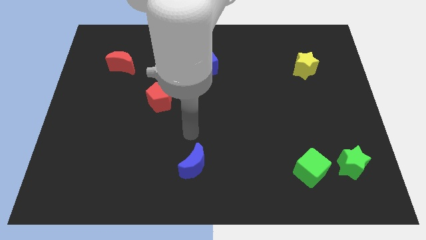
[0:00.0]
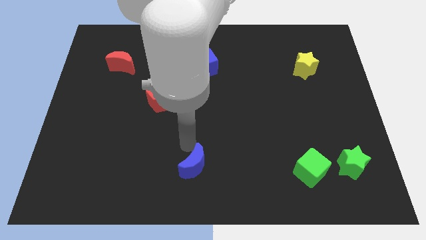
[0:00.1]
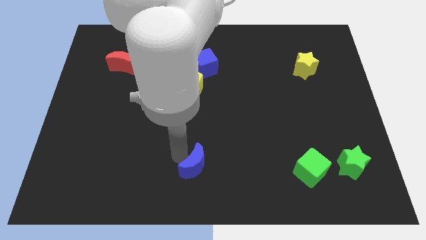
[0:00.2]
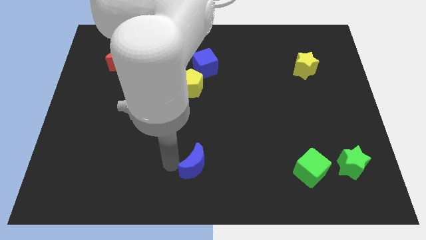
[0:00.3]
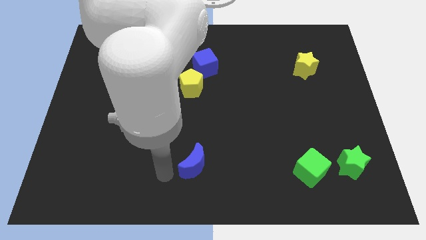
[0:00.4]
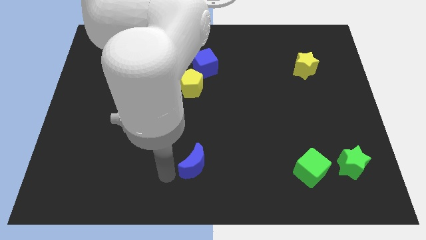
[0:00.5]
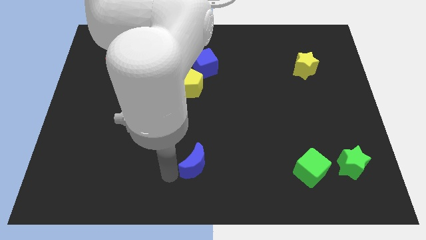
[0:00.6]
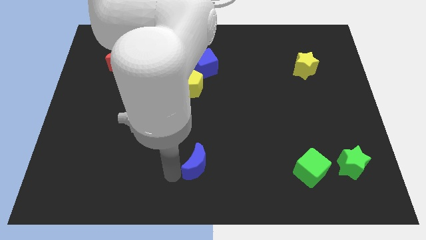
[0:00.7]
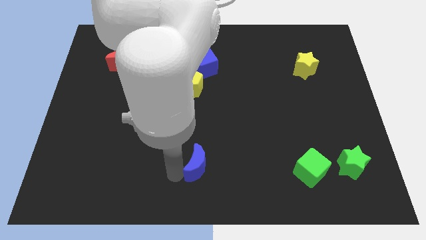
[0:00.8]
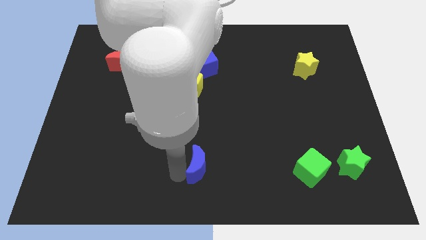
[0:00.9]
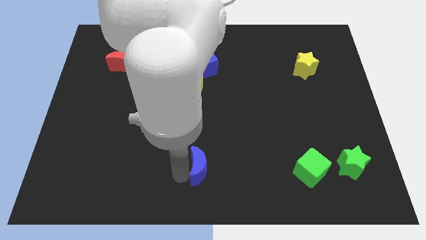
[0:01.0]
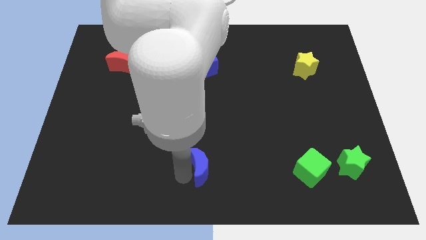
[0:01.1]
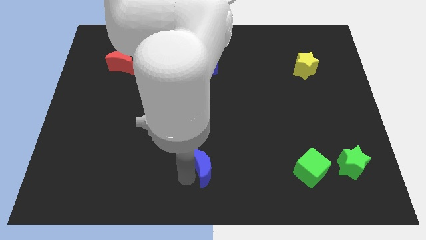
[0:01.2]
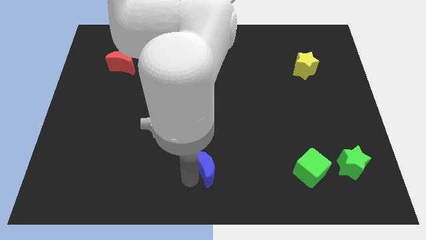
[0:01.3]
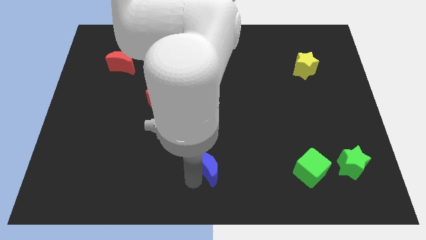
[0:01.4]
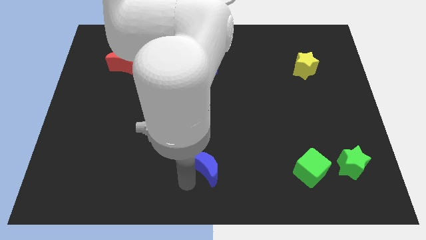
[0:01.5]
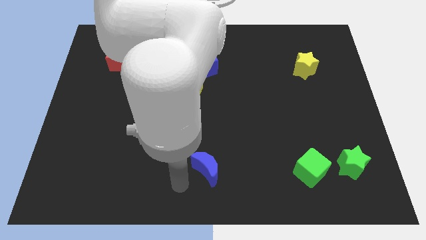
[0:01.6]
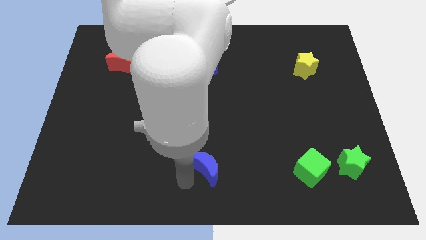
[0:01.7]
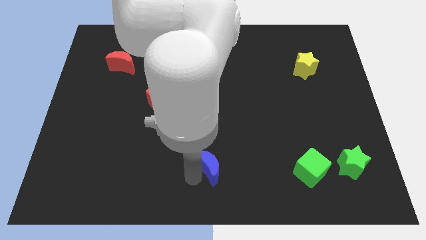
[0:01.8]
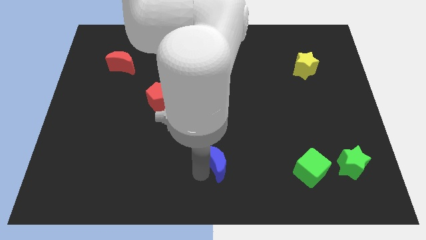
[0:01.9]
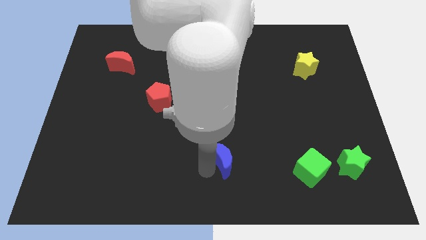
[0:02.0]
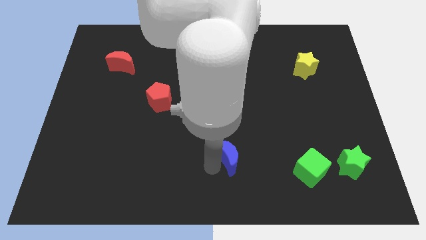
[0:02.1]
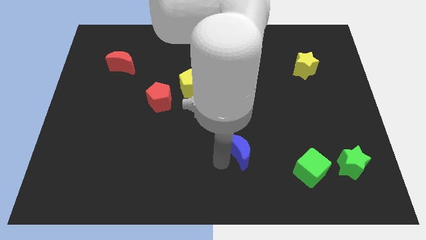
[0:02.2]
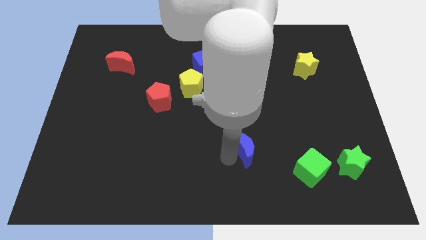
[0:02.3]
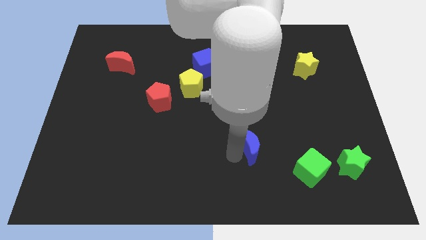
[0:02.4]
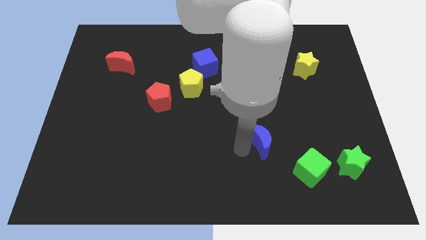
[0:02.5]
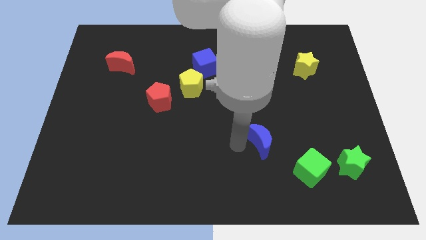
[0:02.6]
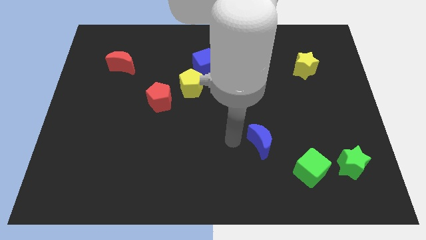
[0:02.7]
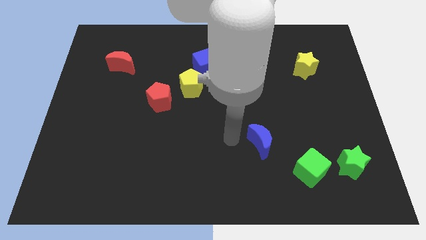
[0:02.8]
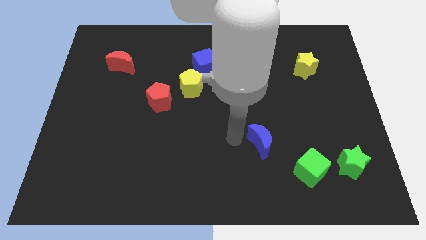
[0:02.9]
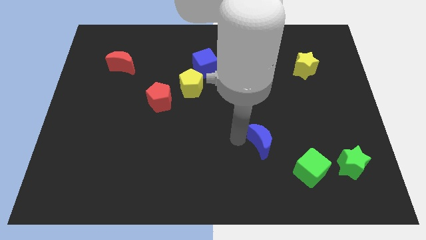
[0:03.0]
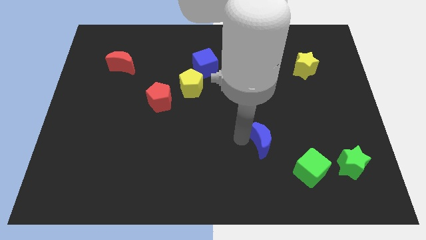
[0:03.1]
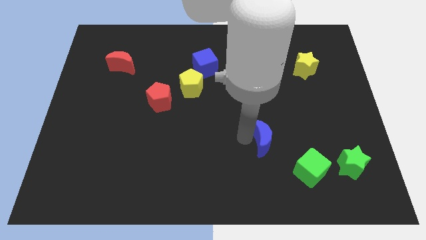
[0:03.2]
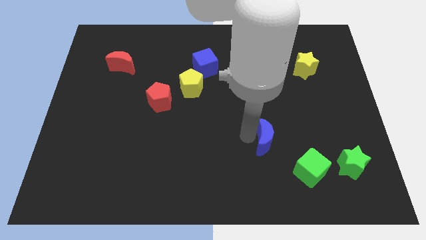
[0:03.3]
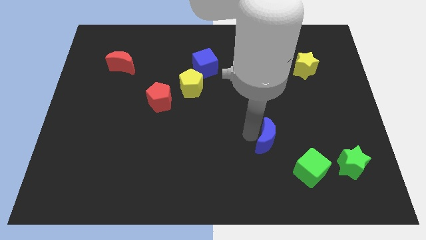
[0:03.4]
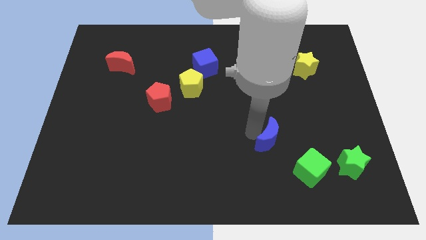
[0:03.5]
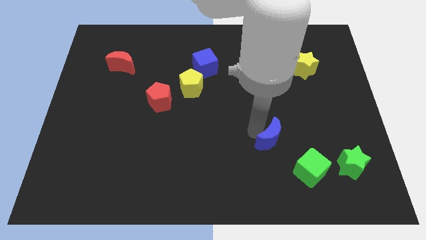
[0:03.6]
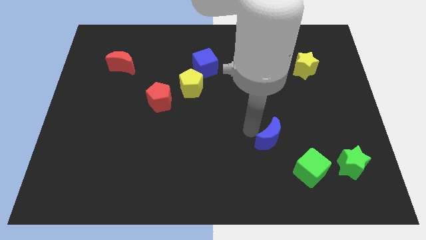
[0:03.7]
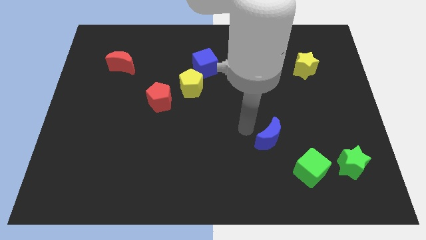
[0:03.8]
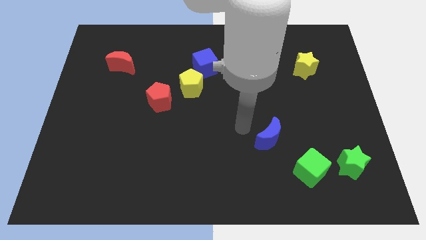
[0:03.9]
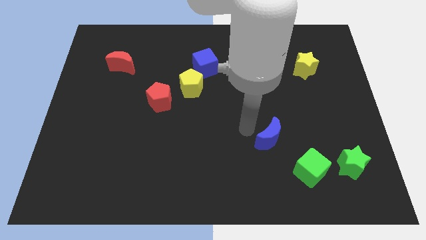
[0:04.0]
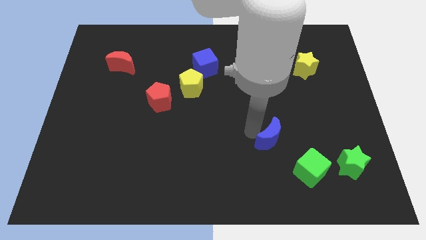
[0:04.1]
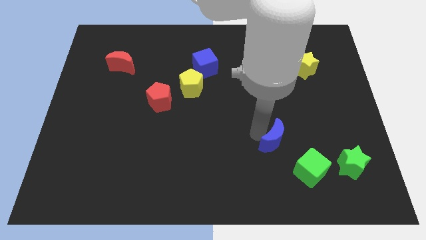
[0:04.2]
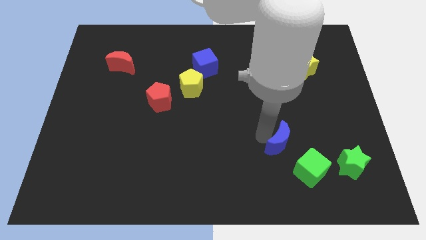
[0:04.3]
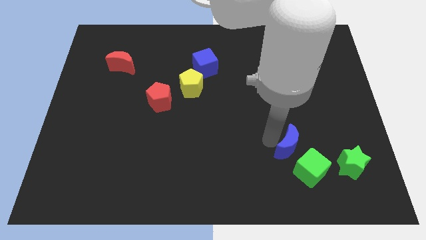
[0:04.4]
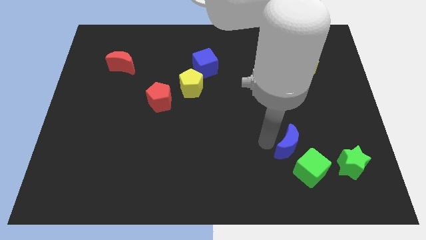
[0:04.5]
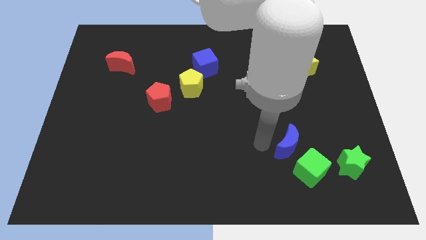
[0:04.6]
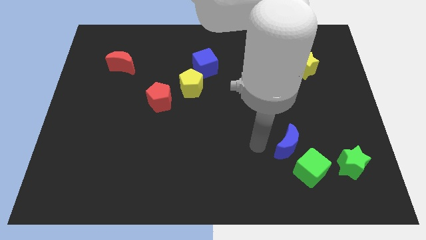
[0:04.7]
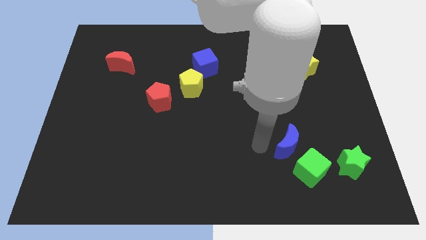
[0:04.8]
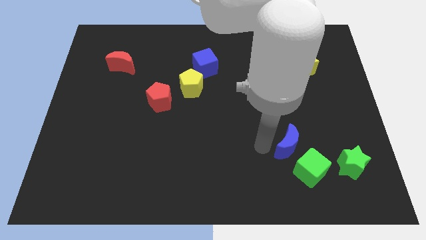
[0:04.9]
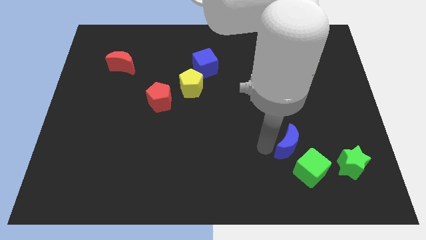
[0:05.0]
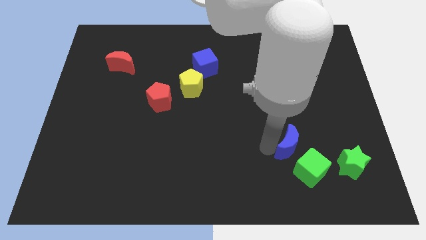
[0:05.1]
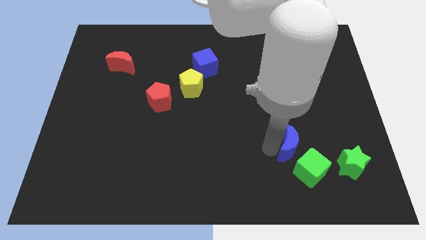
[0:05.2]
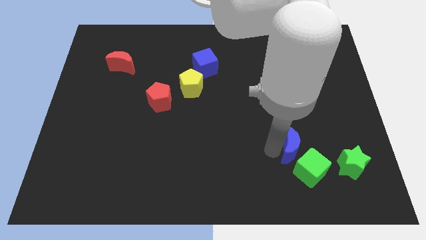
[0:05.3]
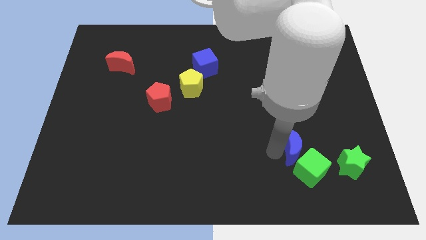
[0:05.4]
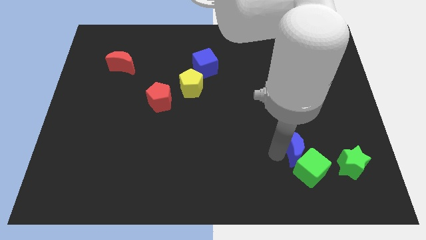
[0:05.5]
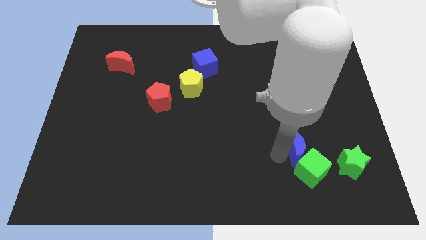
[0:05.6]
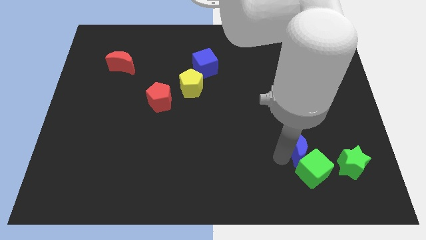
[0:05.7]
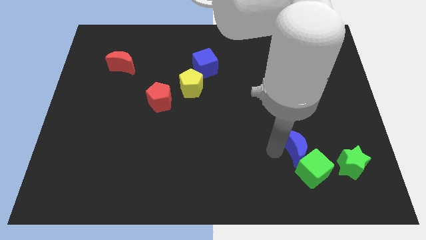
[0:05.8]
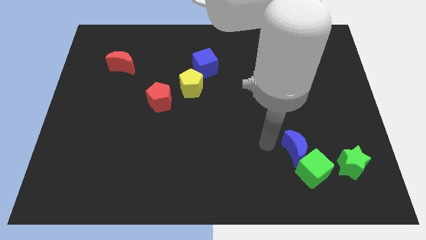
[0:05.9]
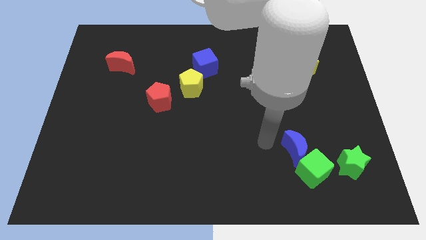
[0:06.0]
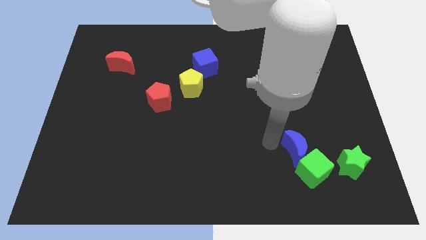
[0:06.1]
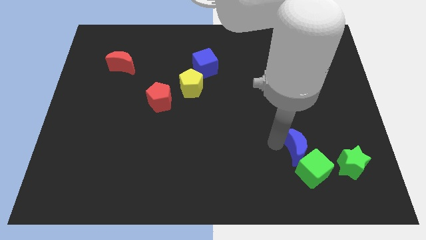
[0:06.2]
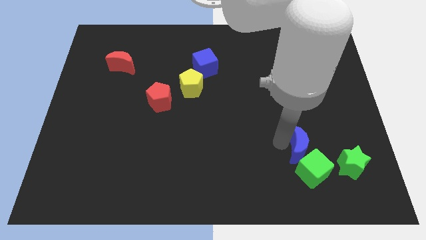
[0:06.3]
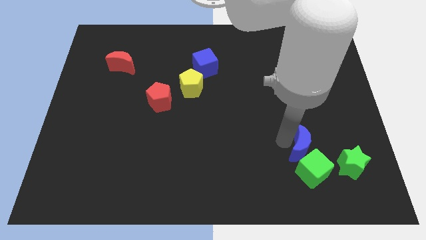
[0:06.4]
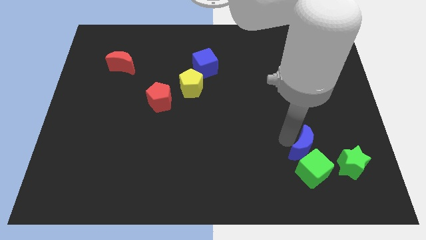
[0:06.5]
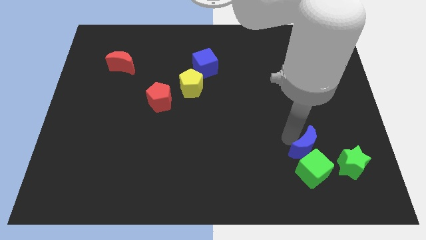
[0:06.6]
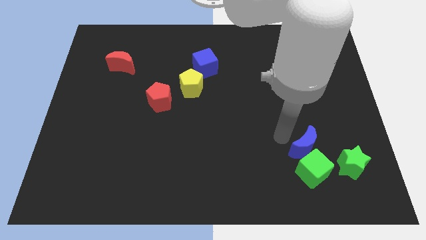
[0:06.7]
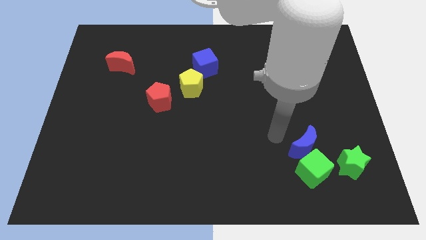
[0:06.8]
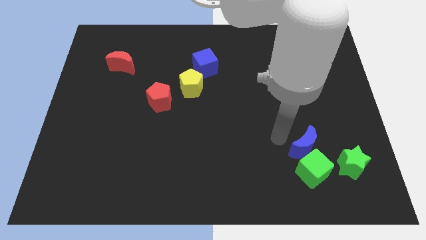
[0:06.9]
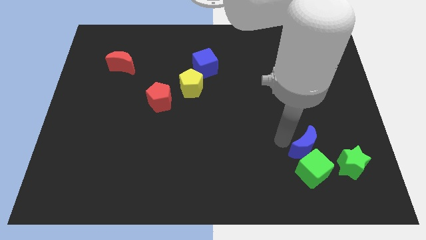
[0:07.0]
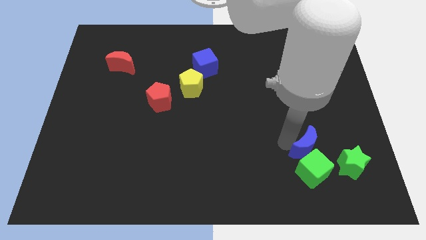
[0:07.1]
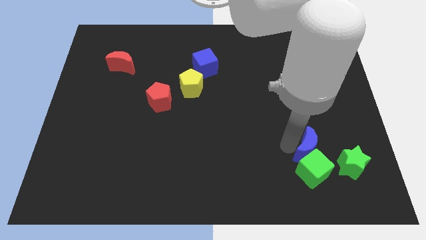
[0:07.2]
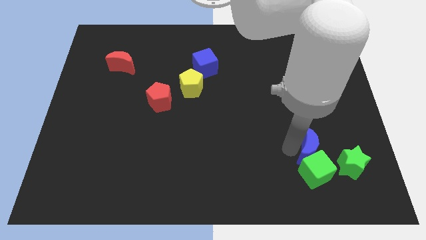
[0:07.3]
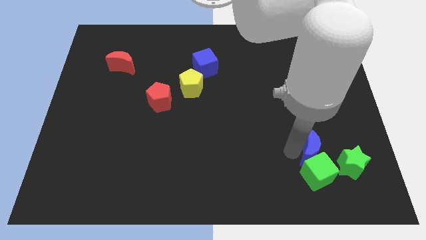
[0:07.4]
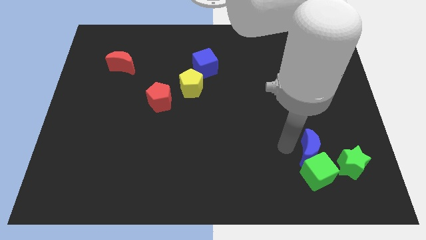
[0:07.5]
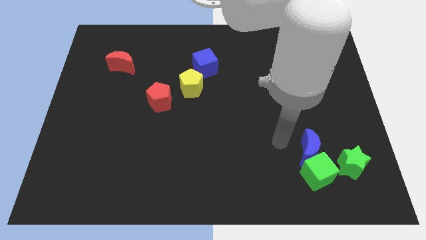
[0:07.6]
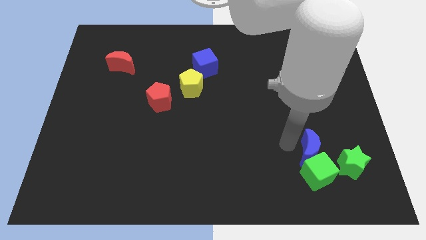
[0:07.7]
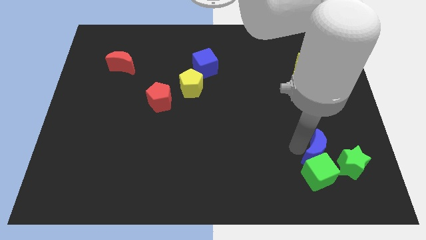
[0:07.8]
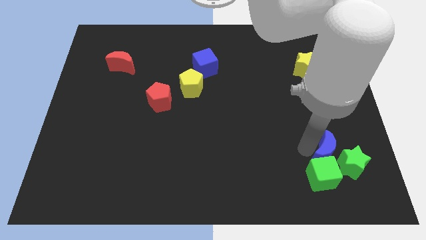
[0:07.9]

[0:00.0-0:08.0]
move the blue moon towards the green star
